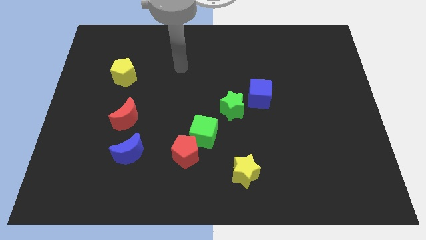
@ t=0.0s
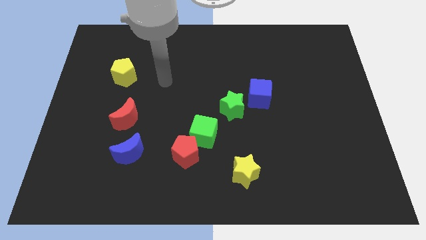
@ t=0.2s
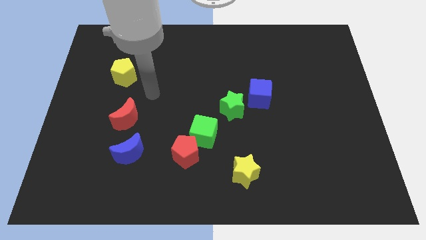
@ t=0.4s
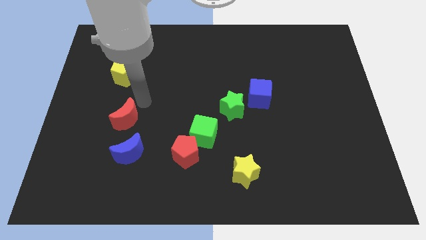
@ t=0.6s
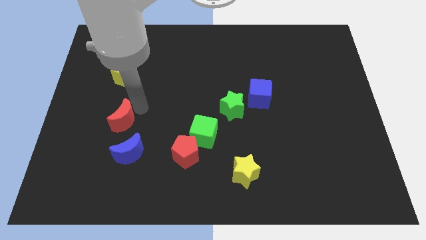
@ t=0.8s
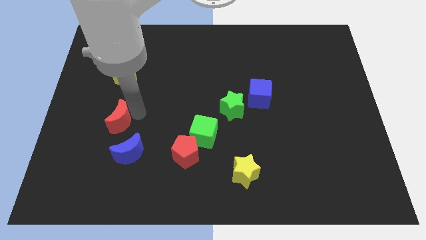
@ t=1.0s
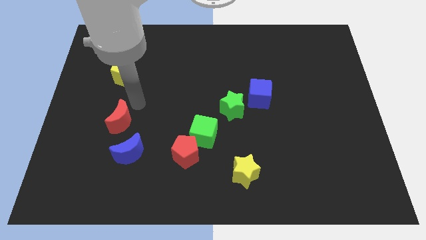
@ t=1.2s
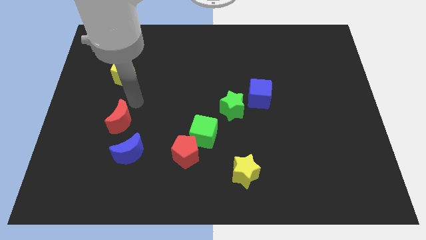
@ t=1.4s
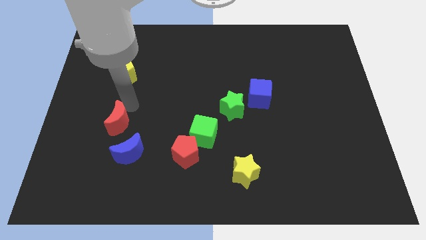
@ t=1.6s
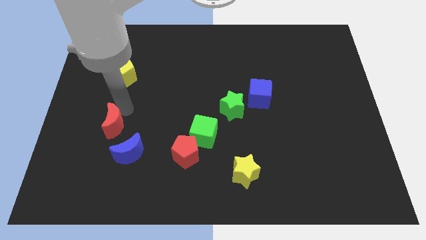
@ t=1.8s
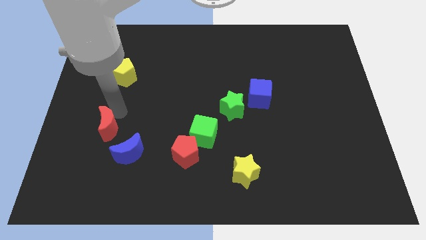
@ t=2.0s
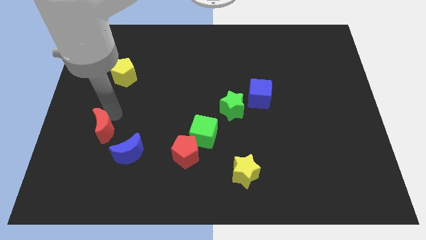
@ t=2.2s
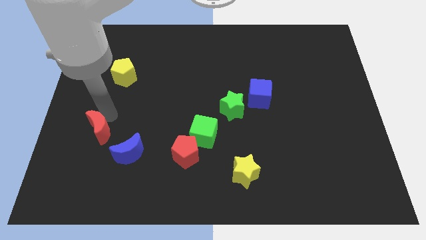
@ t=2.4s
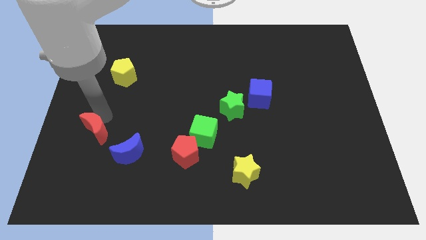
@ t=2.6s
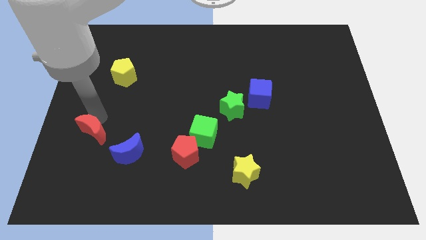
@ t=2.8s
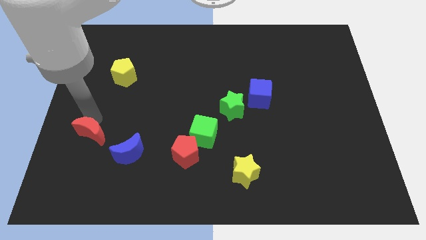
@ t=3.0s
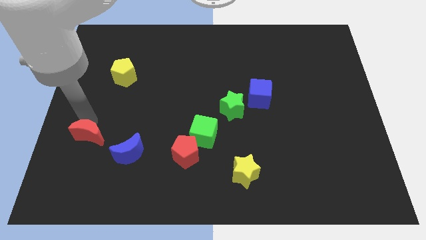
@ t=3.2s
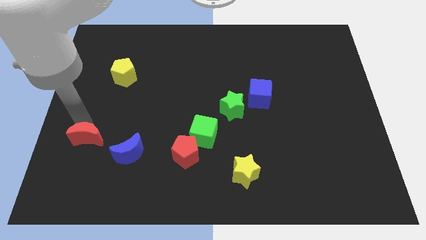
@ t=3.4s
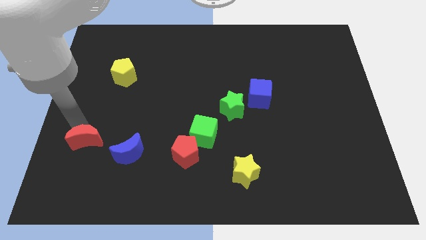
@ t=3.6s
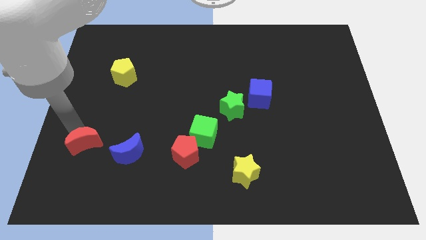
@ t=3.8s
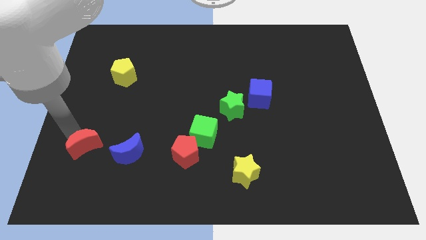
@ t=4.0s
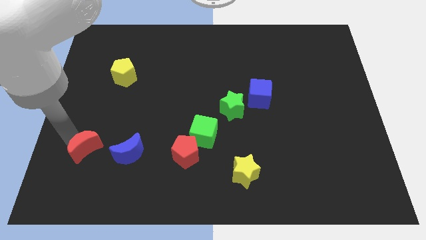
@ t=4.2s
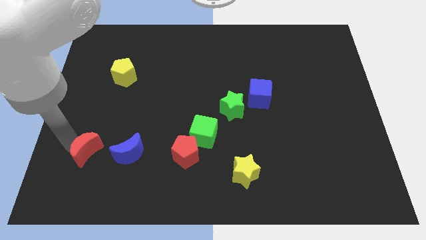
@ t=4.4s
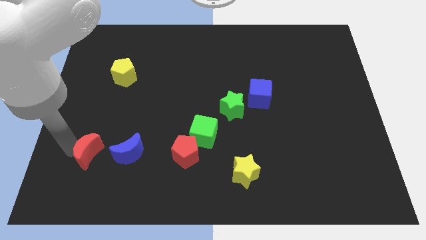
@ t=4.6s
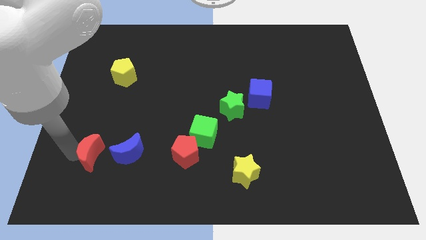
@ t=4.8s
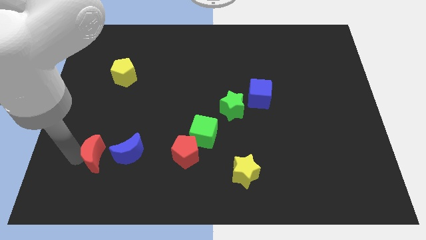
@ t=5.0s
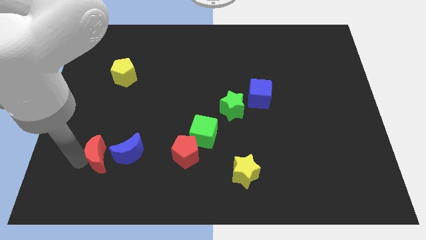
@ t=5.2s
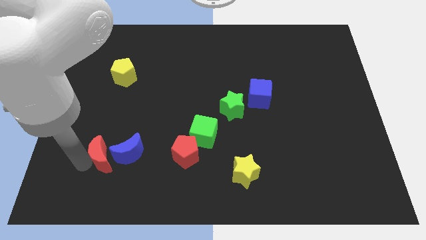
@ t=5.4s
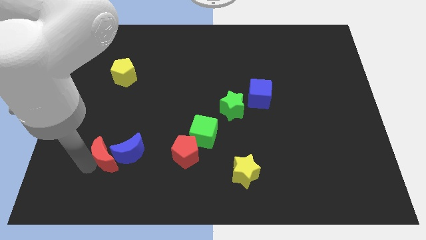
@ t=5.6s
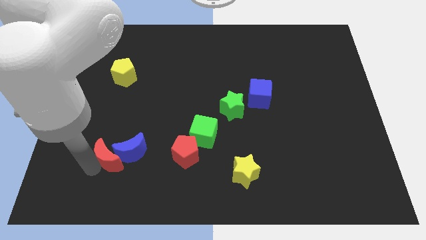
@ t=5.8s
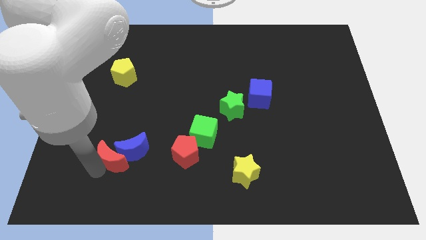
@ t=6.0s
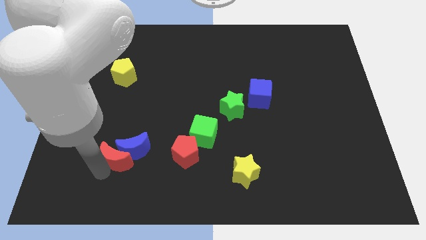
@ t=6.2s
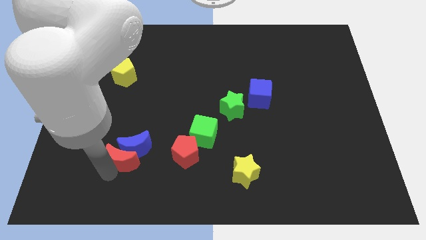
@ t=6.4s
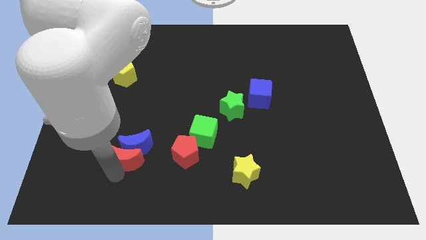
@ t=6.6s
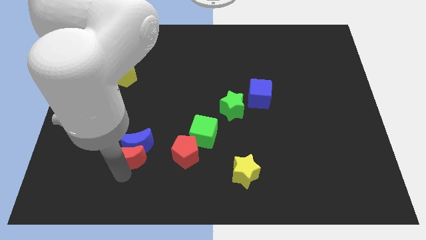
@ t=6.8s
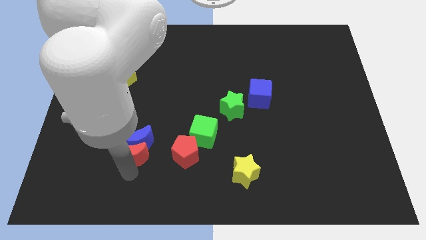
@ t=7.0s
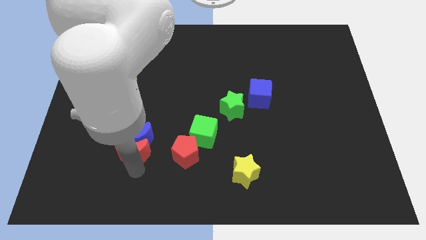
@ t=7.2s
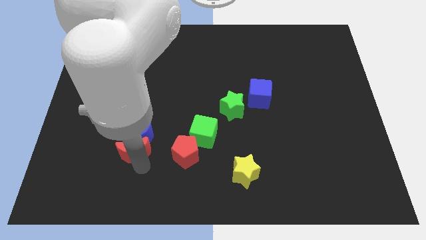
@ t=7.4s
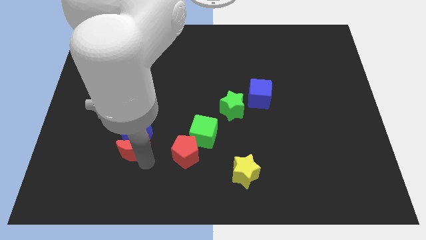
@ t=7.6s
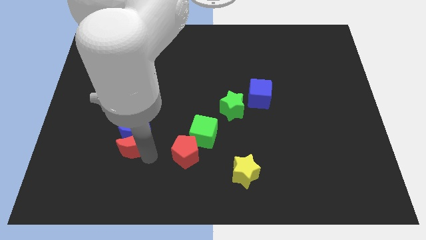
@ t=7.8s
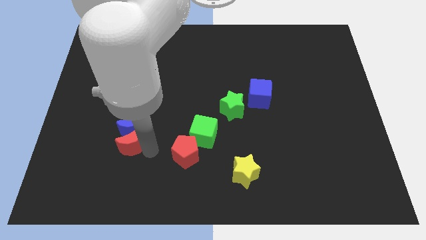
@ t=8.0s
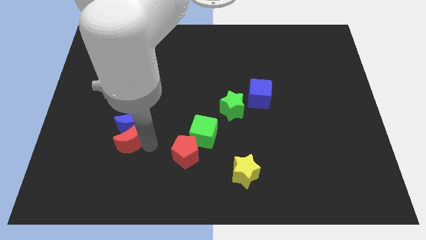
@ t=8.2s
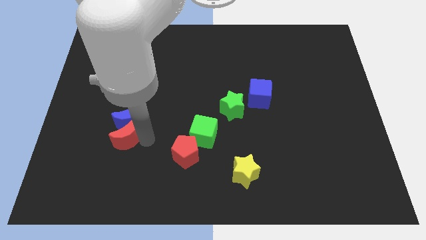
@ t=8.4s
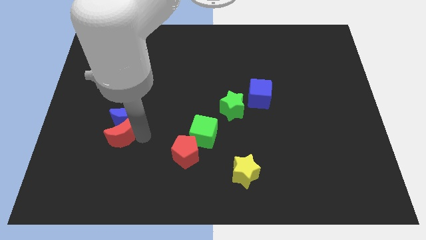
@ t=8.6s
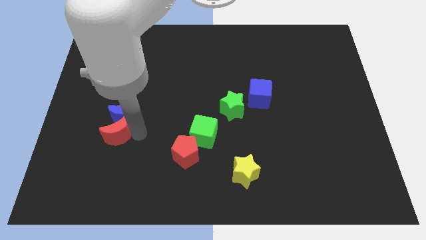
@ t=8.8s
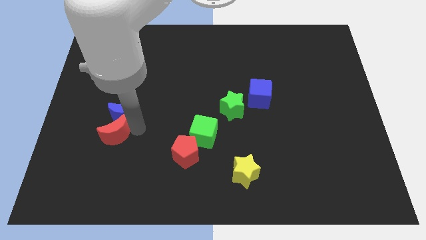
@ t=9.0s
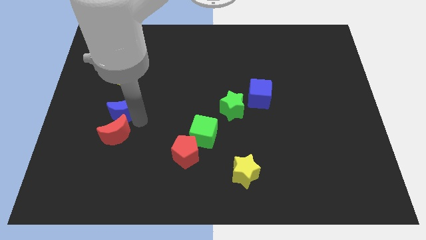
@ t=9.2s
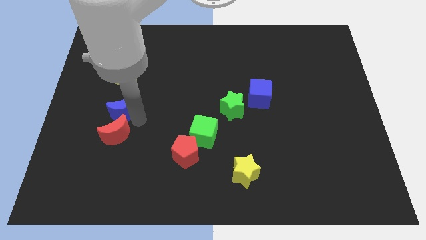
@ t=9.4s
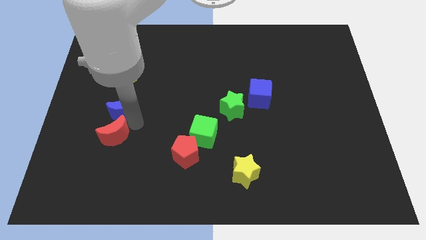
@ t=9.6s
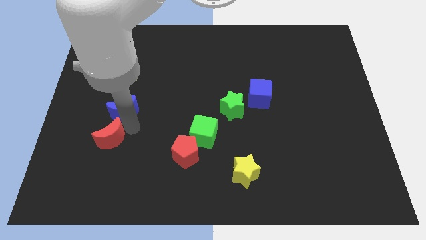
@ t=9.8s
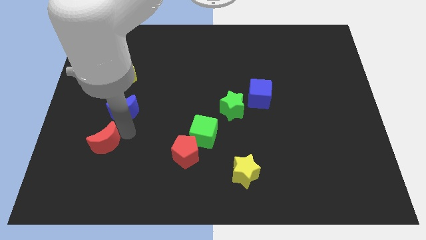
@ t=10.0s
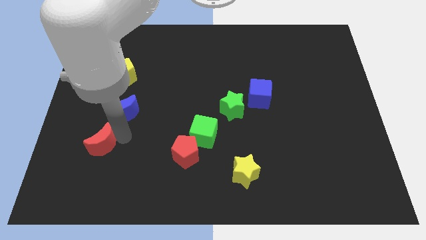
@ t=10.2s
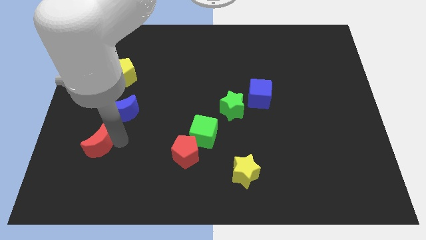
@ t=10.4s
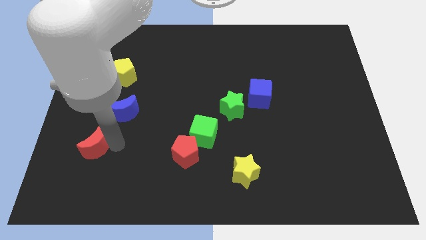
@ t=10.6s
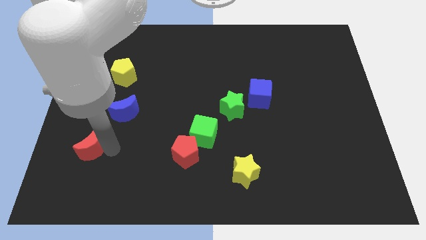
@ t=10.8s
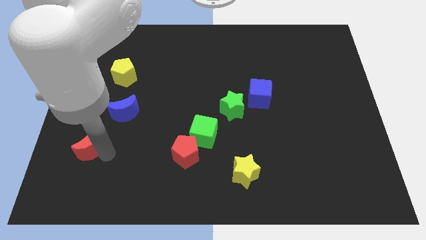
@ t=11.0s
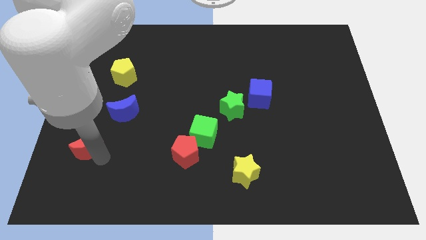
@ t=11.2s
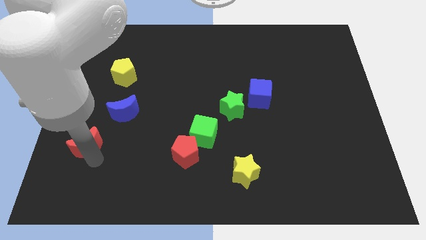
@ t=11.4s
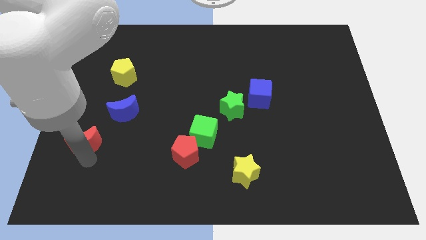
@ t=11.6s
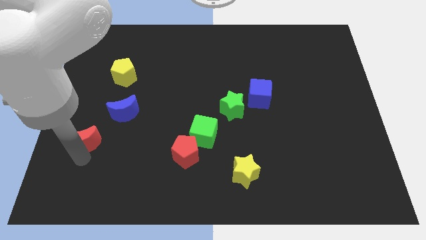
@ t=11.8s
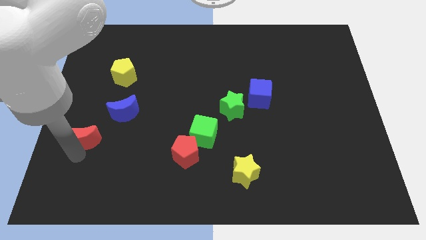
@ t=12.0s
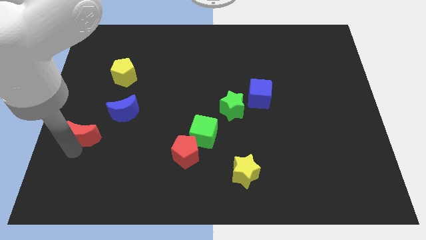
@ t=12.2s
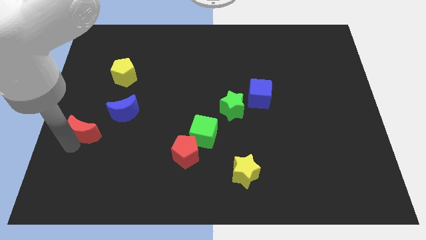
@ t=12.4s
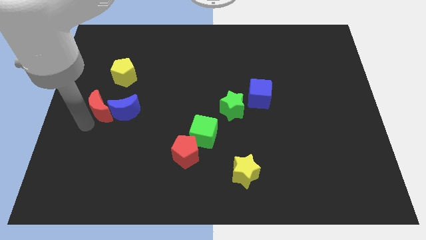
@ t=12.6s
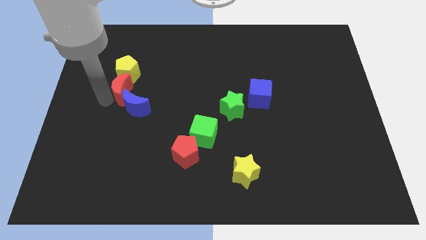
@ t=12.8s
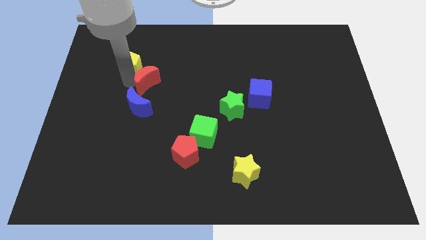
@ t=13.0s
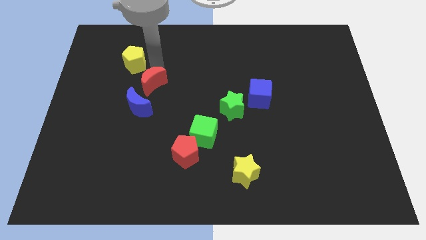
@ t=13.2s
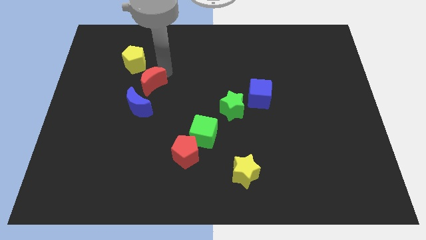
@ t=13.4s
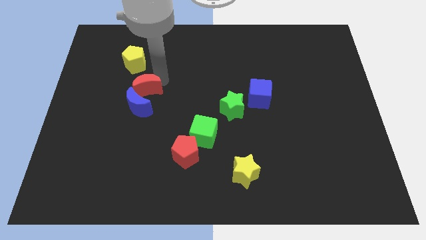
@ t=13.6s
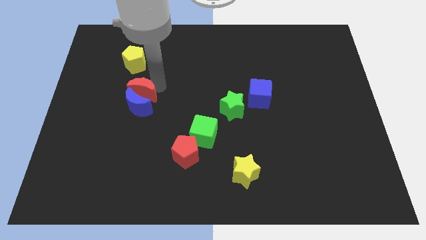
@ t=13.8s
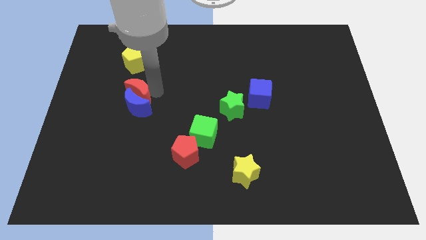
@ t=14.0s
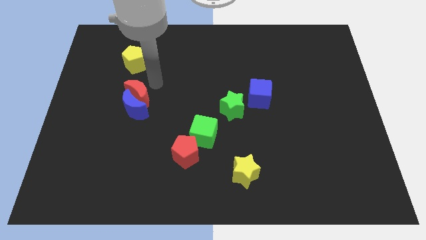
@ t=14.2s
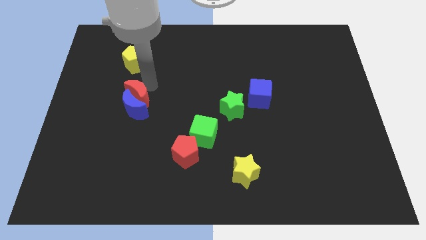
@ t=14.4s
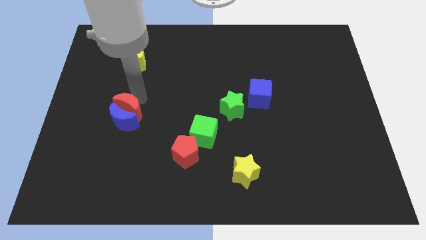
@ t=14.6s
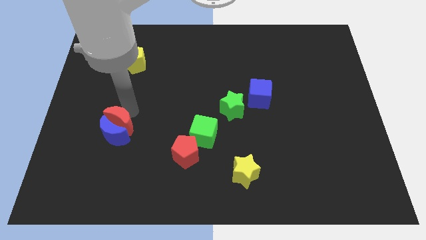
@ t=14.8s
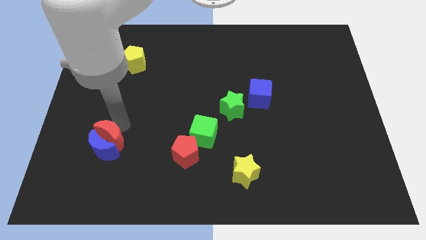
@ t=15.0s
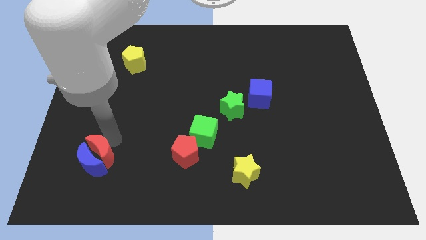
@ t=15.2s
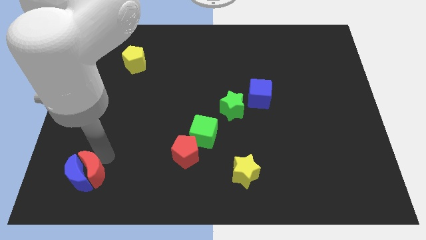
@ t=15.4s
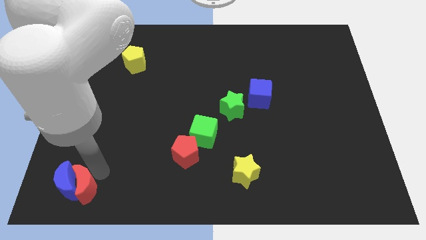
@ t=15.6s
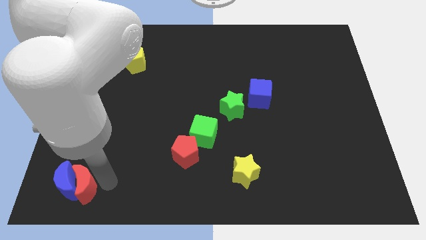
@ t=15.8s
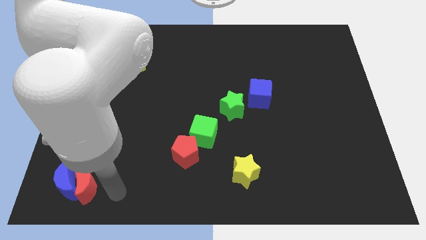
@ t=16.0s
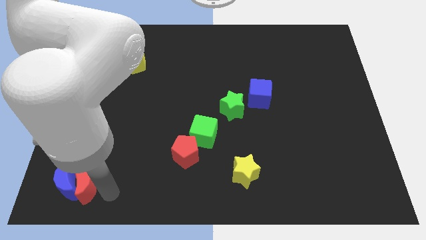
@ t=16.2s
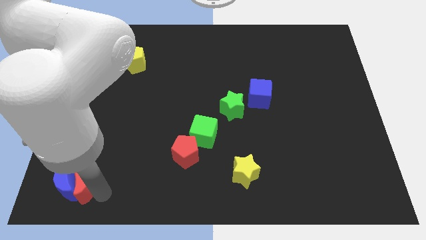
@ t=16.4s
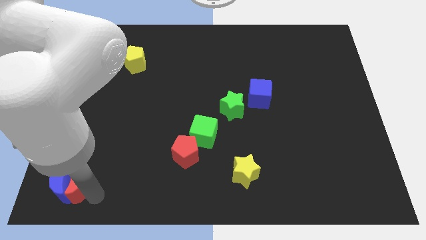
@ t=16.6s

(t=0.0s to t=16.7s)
move the red moon to the bottom left corner
